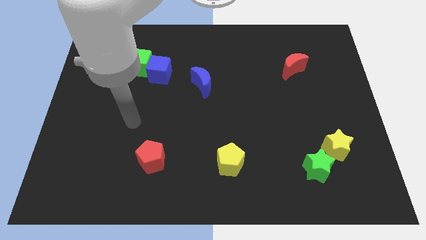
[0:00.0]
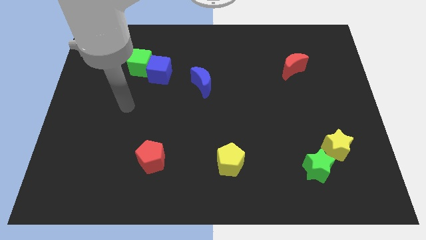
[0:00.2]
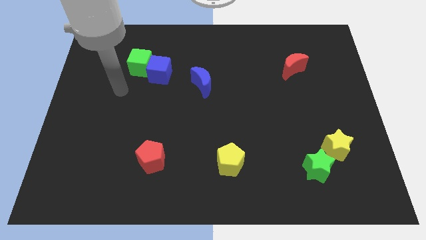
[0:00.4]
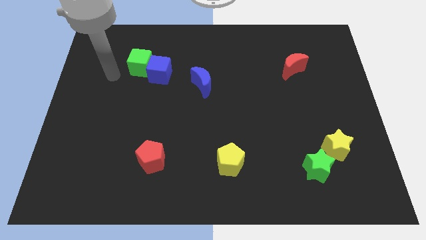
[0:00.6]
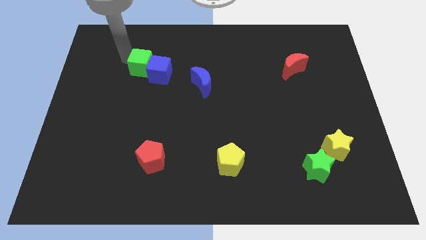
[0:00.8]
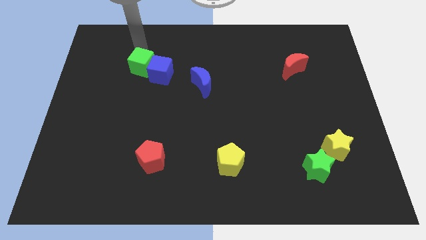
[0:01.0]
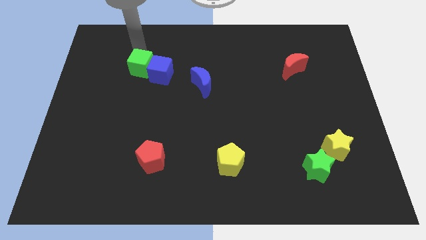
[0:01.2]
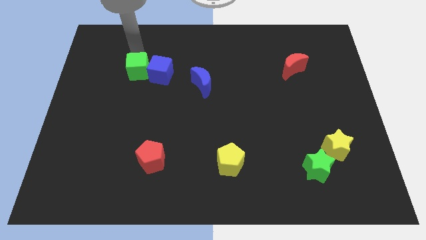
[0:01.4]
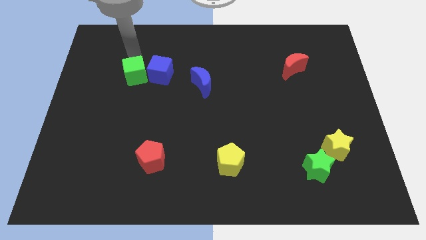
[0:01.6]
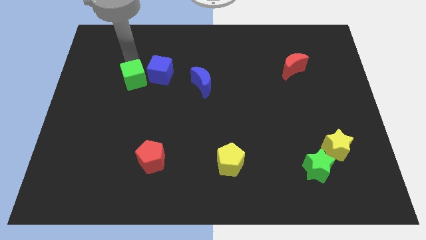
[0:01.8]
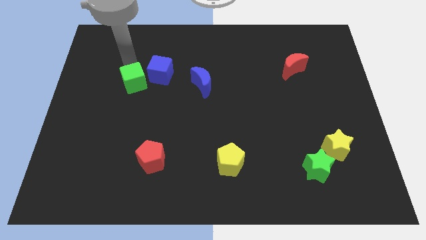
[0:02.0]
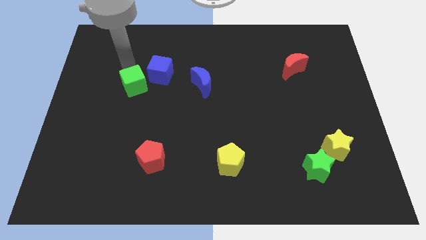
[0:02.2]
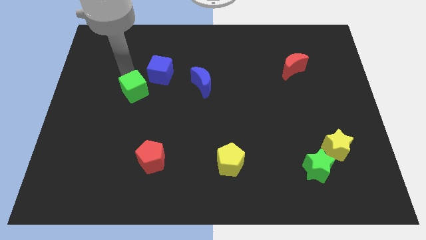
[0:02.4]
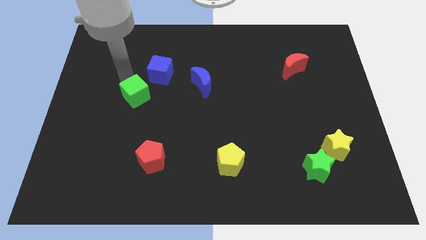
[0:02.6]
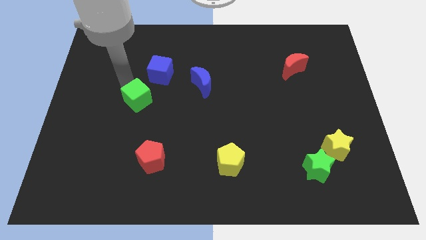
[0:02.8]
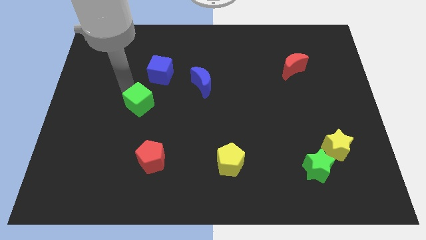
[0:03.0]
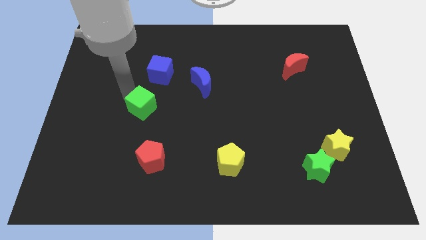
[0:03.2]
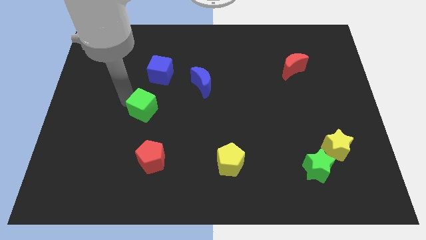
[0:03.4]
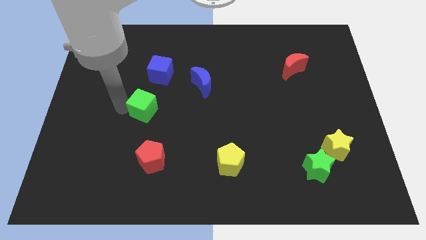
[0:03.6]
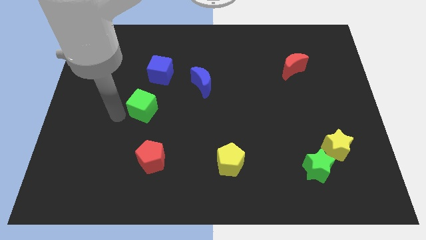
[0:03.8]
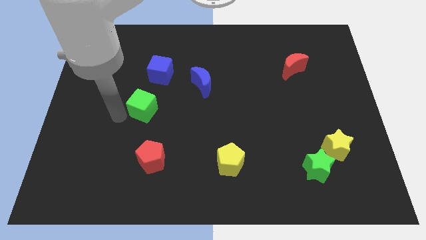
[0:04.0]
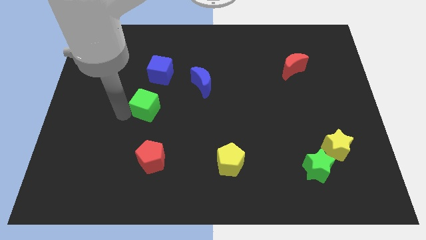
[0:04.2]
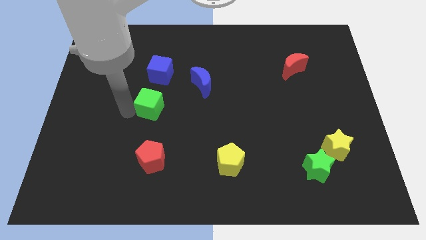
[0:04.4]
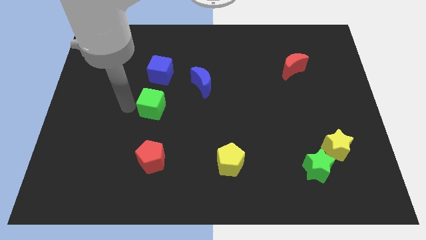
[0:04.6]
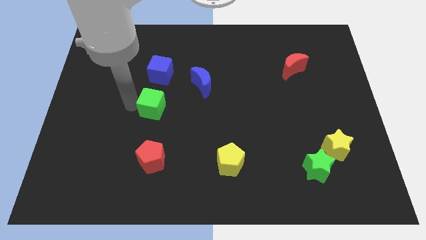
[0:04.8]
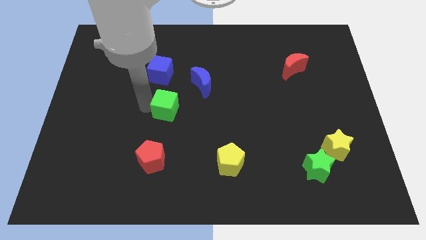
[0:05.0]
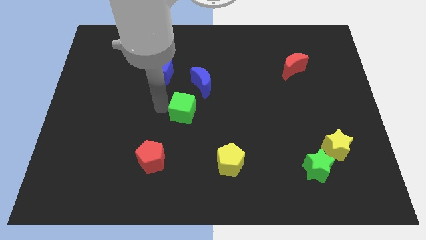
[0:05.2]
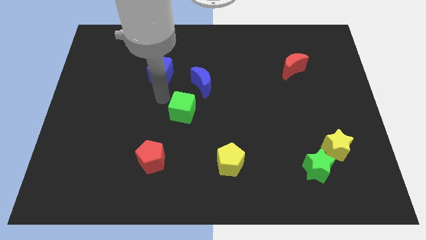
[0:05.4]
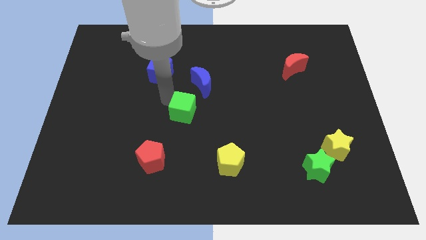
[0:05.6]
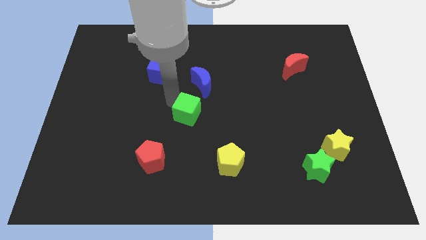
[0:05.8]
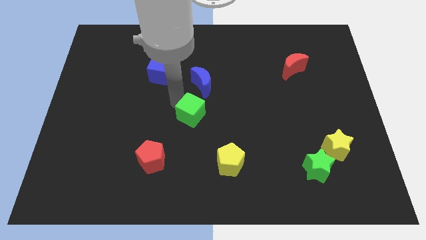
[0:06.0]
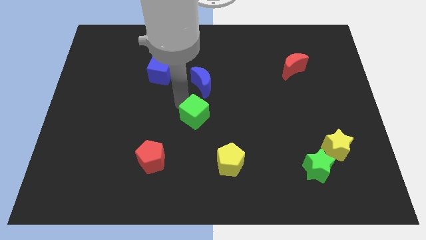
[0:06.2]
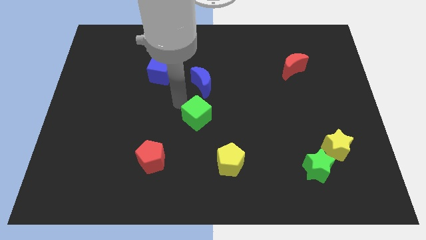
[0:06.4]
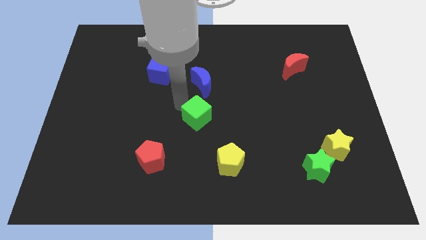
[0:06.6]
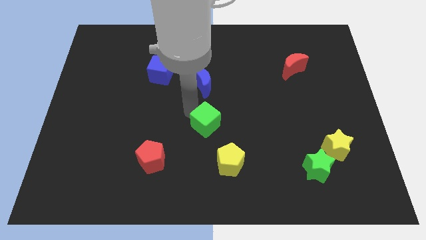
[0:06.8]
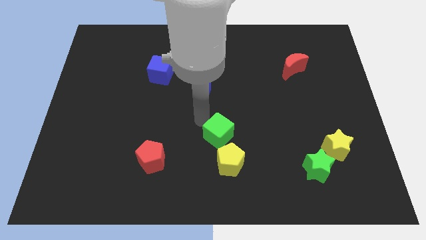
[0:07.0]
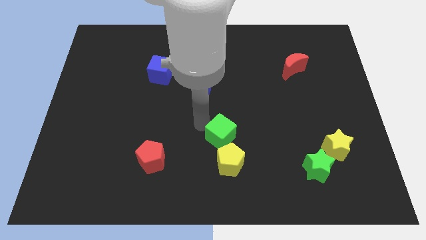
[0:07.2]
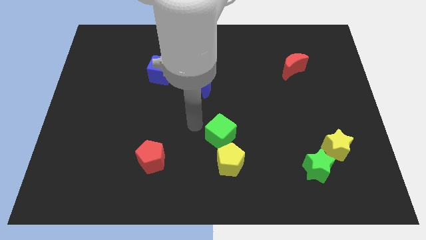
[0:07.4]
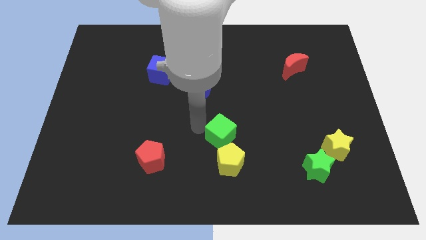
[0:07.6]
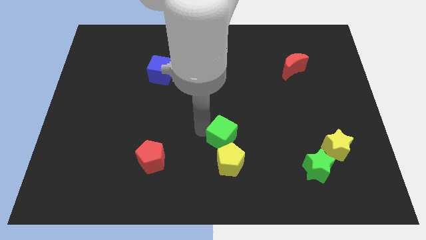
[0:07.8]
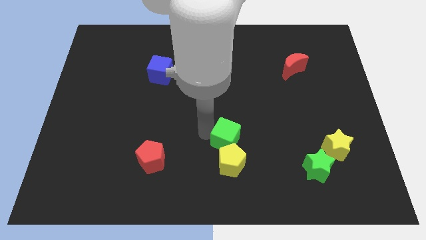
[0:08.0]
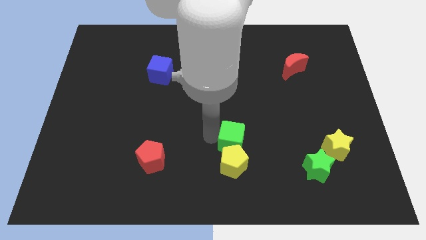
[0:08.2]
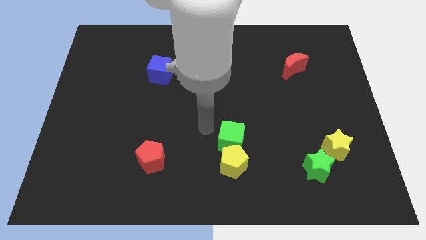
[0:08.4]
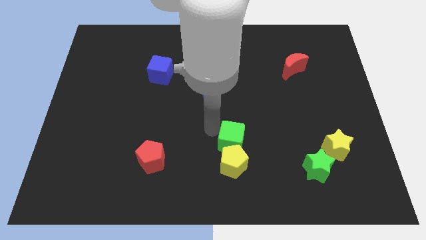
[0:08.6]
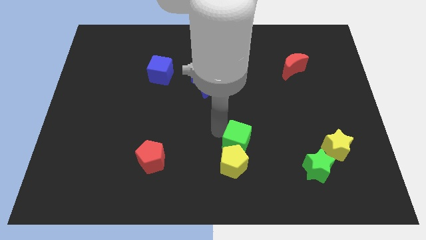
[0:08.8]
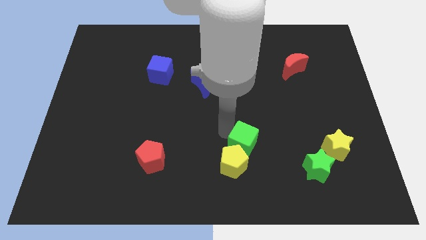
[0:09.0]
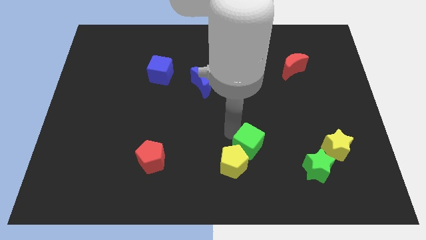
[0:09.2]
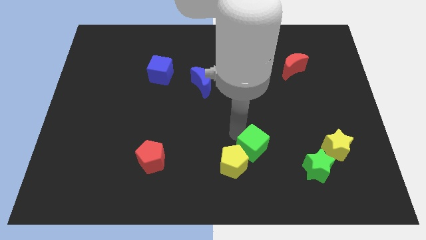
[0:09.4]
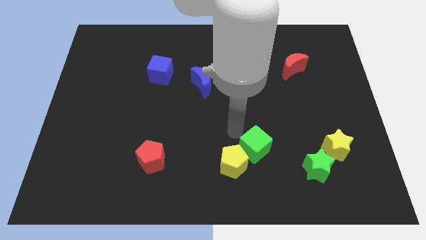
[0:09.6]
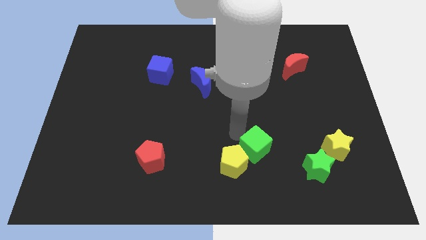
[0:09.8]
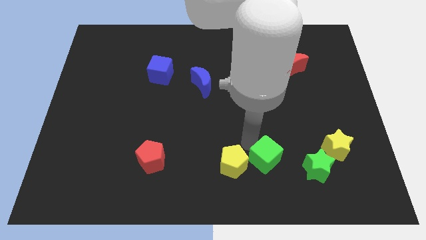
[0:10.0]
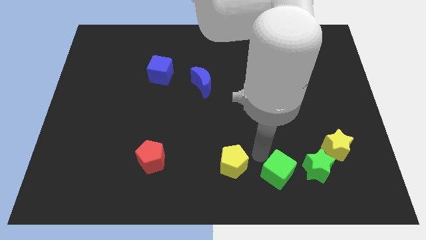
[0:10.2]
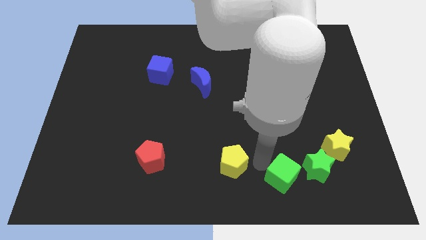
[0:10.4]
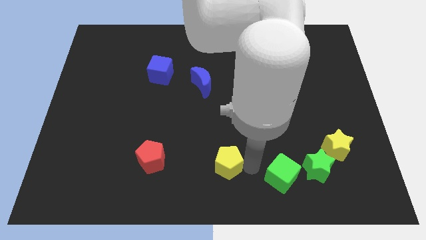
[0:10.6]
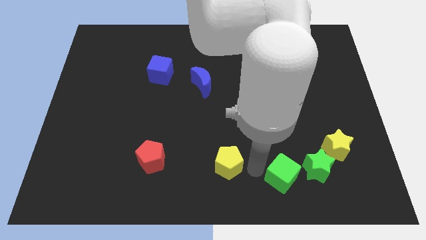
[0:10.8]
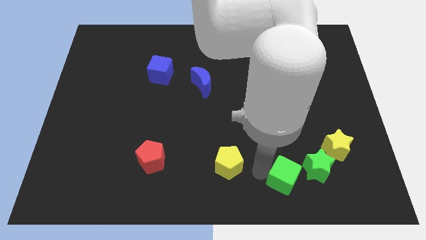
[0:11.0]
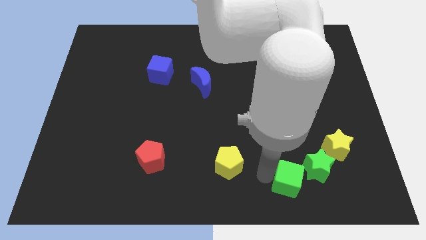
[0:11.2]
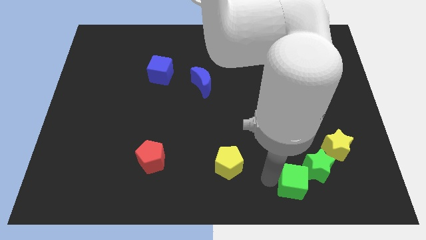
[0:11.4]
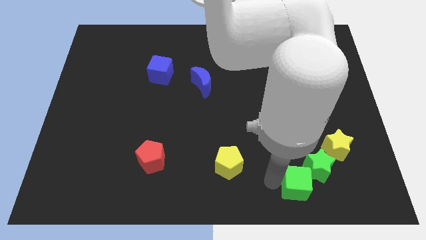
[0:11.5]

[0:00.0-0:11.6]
move the green cube to the bottom left of the yellow star

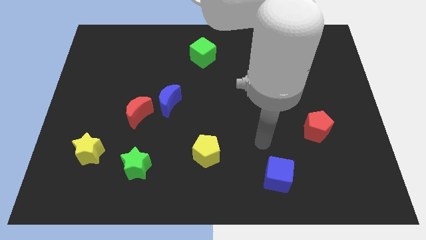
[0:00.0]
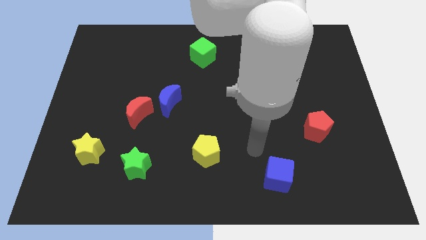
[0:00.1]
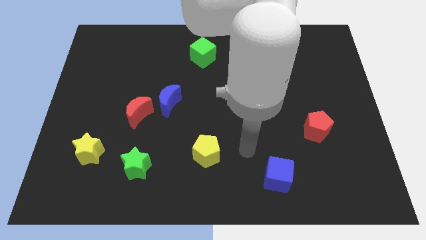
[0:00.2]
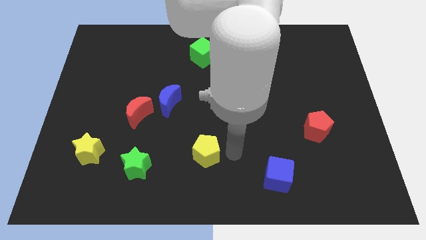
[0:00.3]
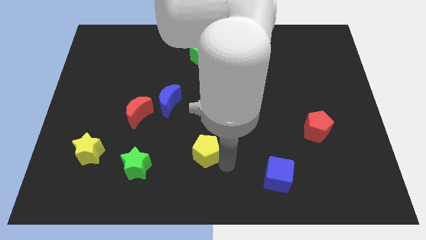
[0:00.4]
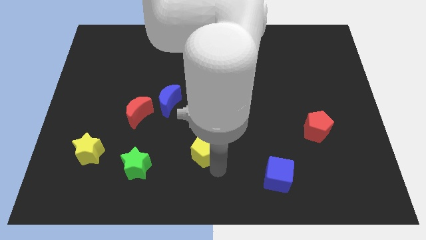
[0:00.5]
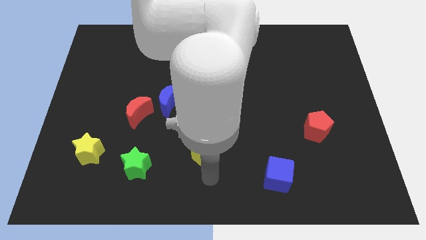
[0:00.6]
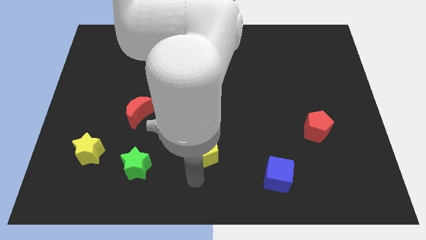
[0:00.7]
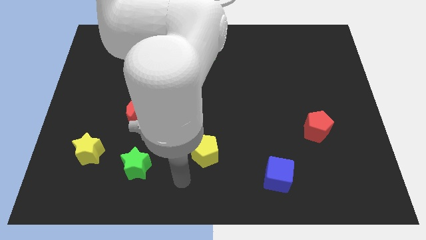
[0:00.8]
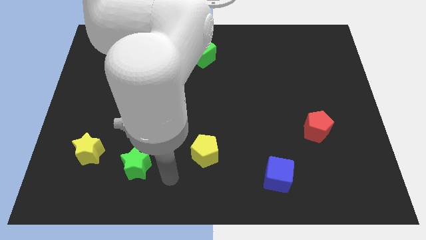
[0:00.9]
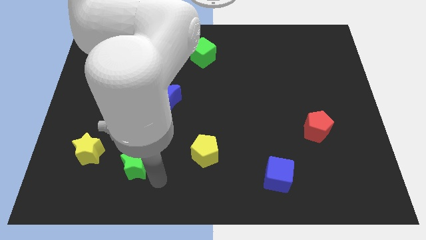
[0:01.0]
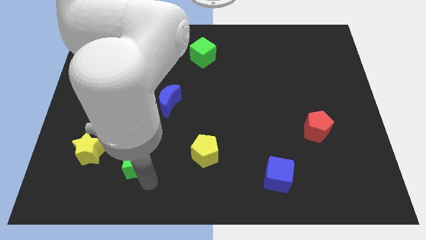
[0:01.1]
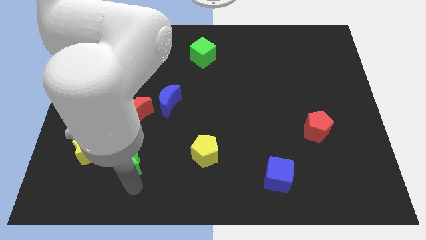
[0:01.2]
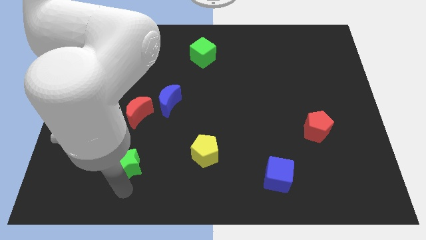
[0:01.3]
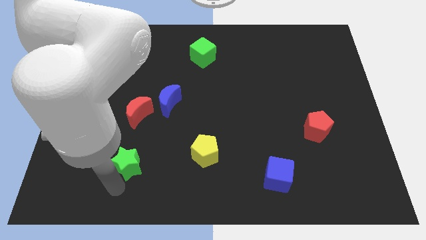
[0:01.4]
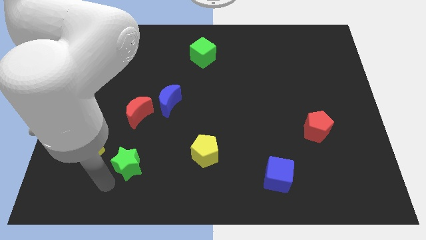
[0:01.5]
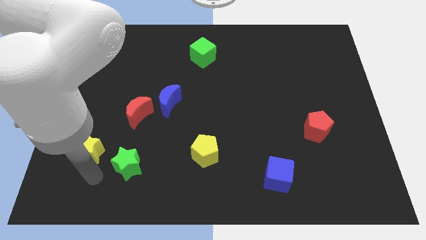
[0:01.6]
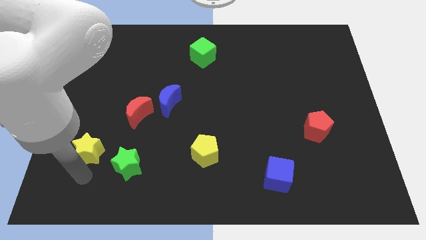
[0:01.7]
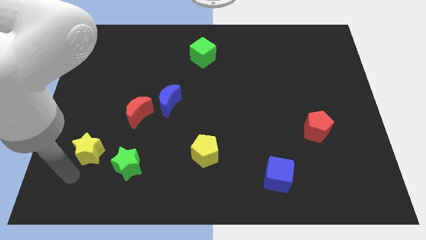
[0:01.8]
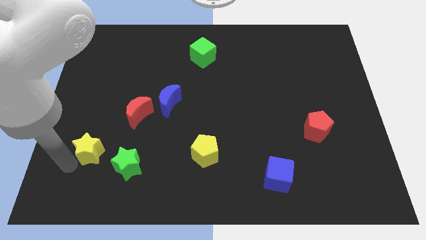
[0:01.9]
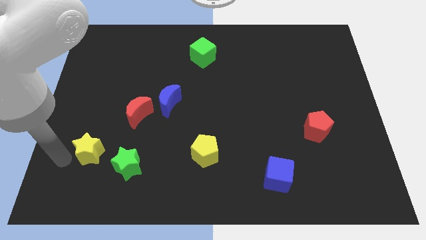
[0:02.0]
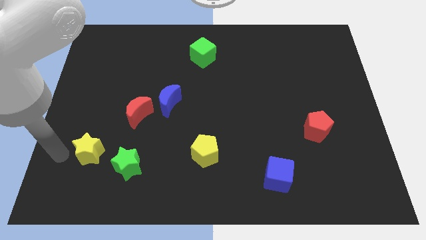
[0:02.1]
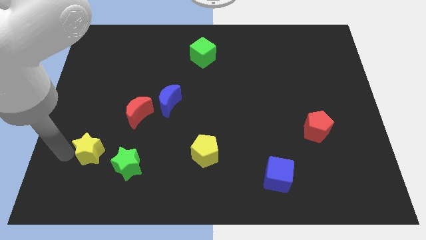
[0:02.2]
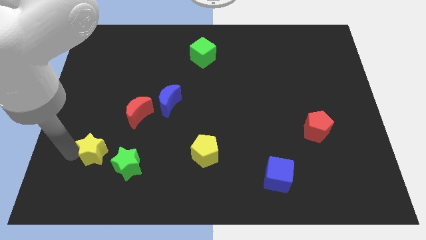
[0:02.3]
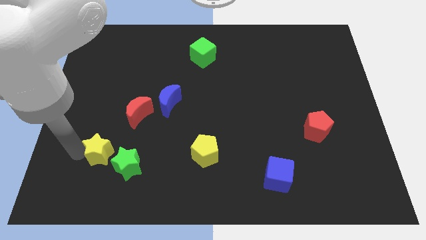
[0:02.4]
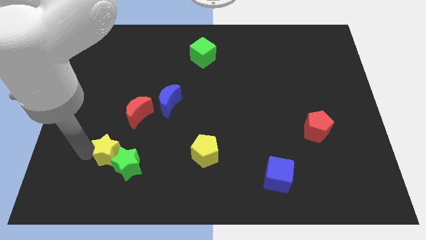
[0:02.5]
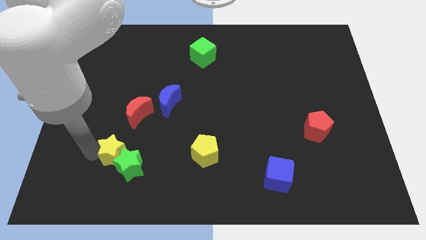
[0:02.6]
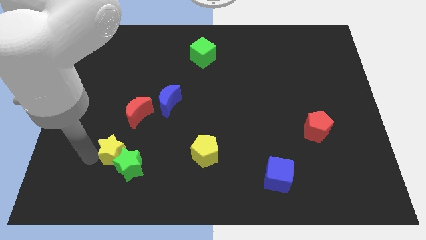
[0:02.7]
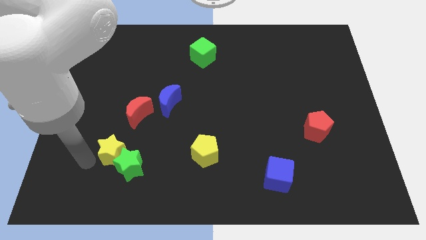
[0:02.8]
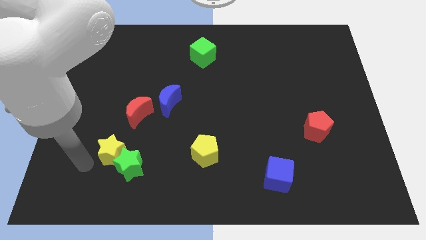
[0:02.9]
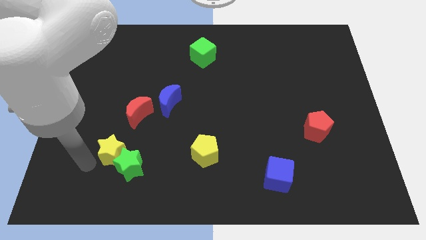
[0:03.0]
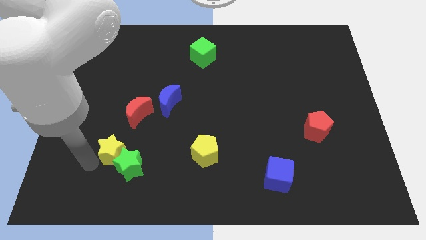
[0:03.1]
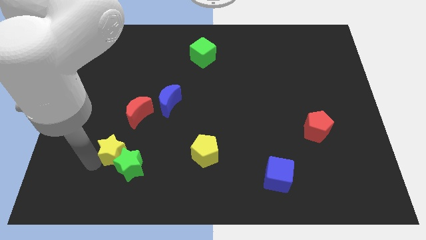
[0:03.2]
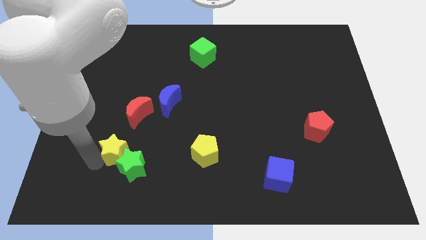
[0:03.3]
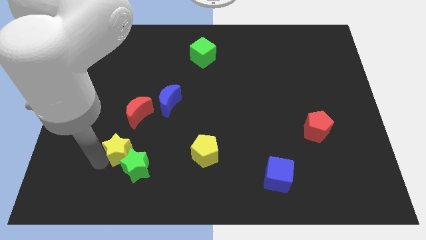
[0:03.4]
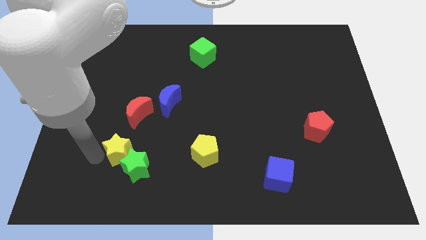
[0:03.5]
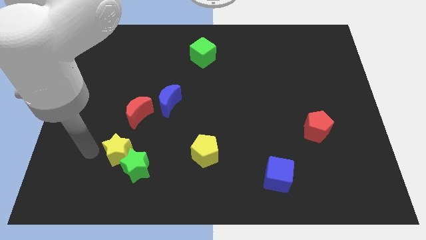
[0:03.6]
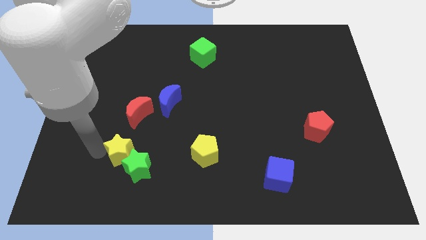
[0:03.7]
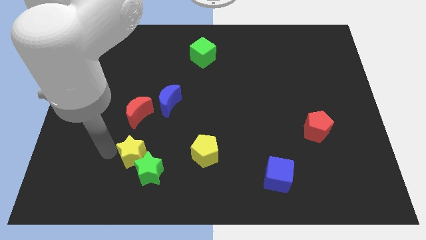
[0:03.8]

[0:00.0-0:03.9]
put the yellow star to the left of the yellow pentagon
